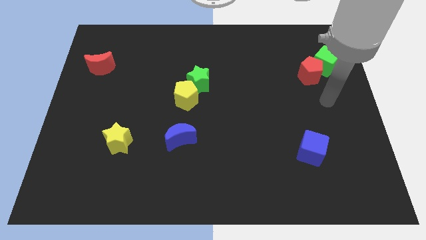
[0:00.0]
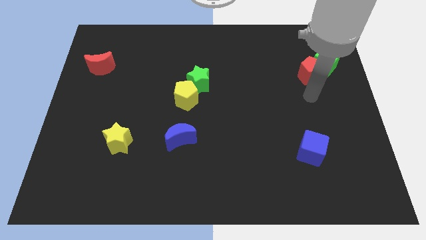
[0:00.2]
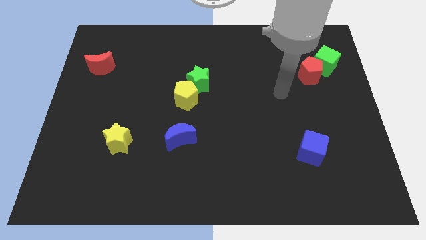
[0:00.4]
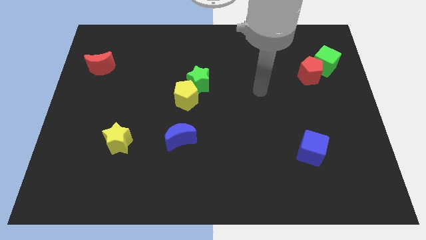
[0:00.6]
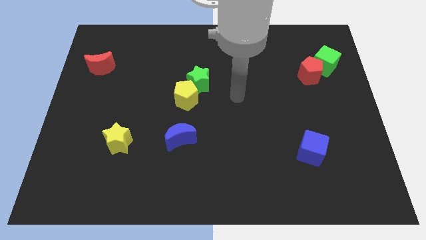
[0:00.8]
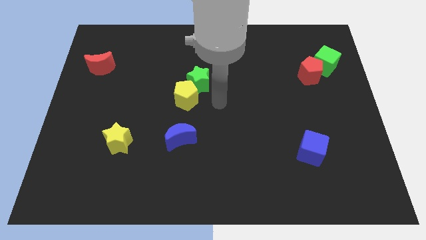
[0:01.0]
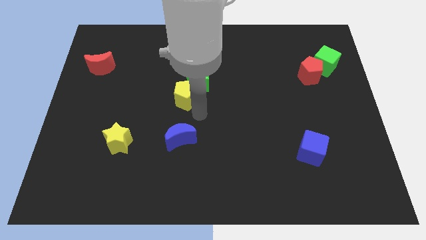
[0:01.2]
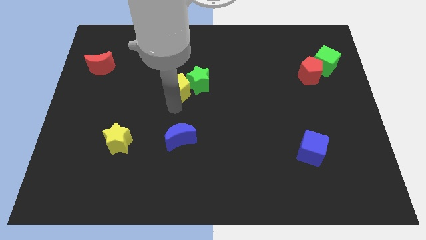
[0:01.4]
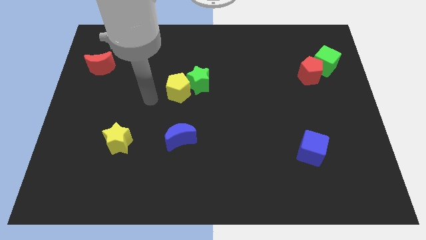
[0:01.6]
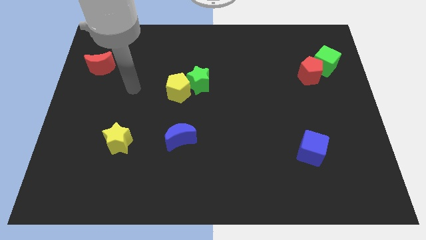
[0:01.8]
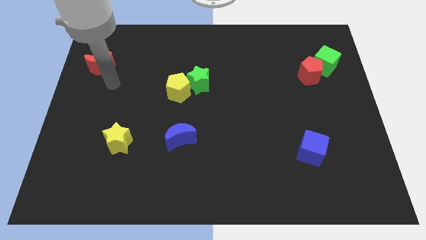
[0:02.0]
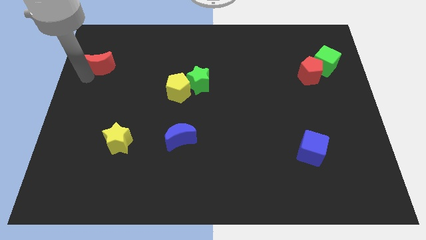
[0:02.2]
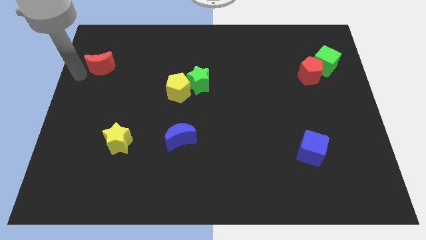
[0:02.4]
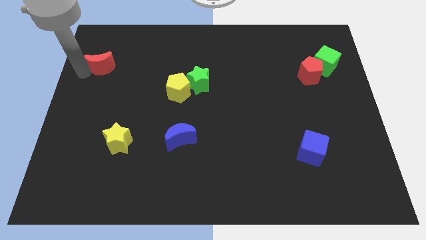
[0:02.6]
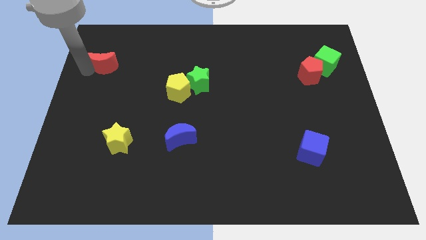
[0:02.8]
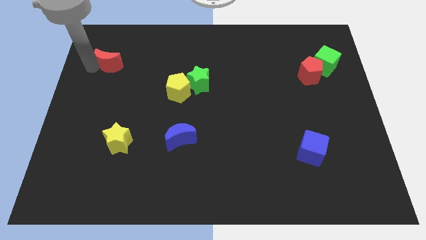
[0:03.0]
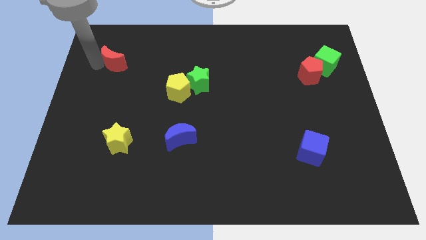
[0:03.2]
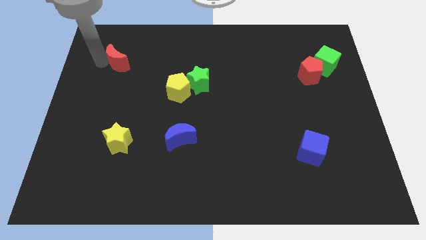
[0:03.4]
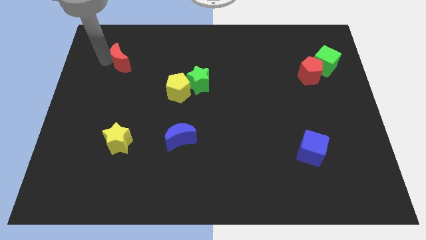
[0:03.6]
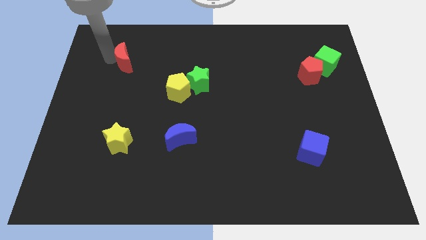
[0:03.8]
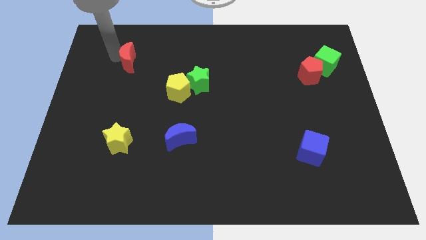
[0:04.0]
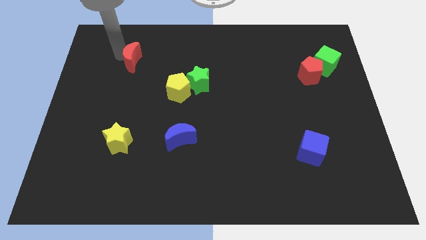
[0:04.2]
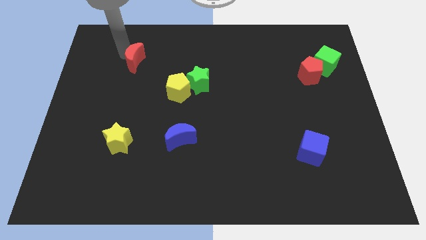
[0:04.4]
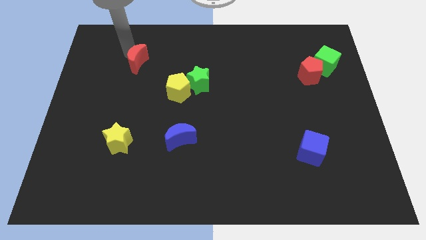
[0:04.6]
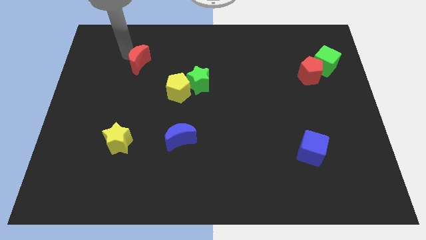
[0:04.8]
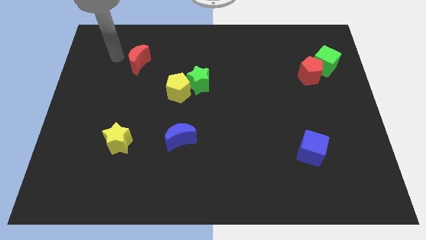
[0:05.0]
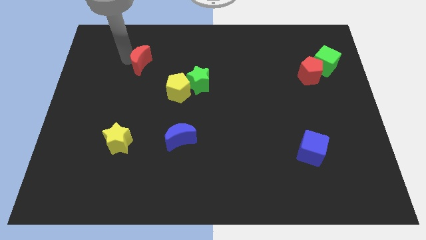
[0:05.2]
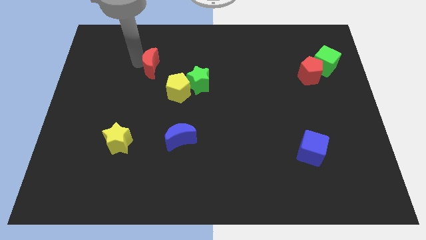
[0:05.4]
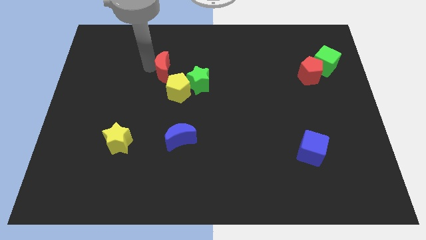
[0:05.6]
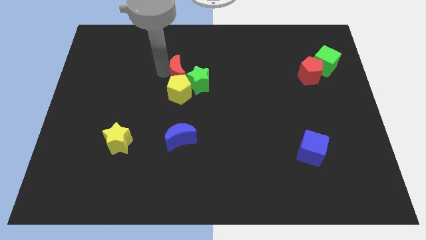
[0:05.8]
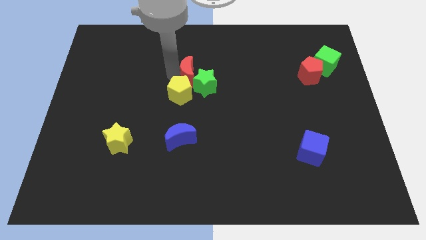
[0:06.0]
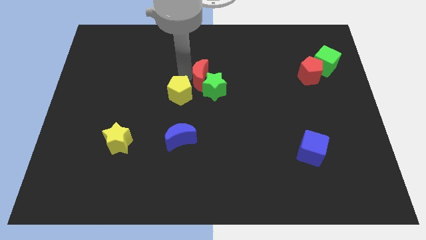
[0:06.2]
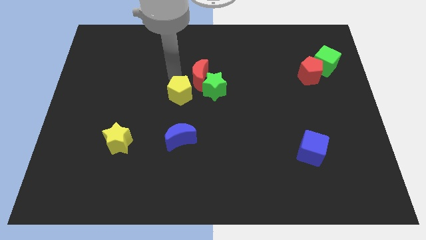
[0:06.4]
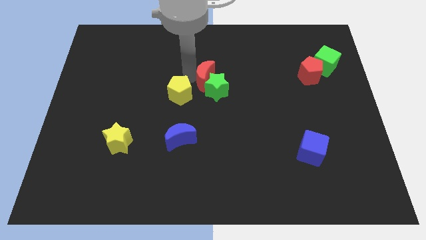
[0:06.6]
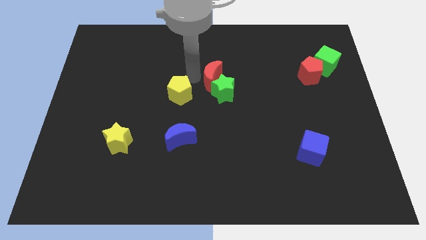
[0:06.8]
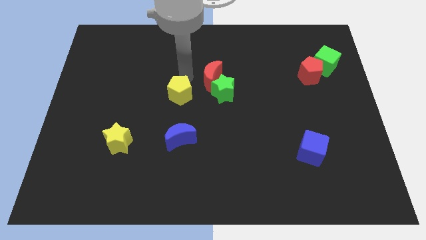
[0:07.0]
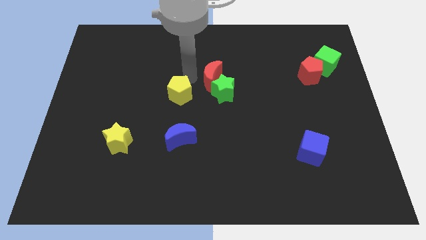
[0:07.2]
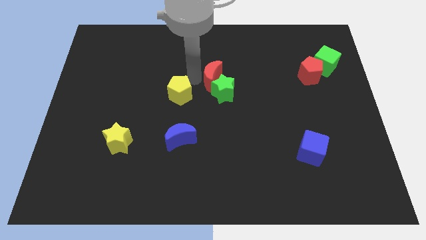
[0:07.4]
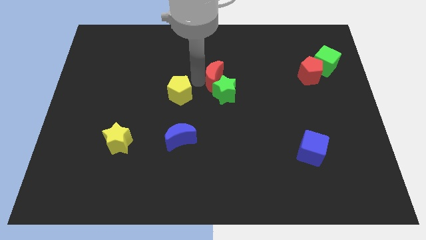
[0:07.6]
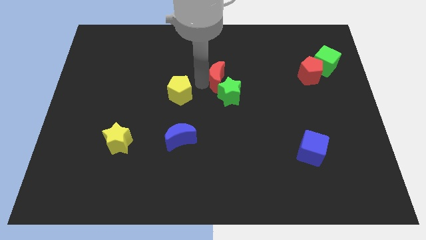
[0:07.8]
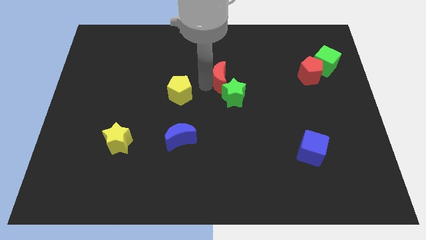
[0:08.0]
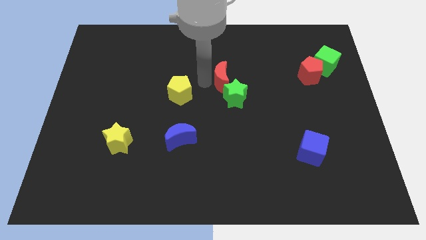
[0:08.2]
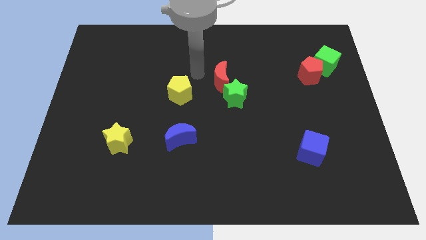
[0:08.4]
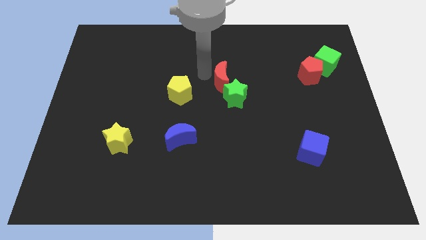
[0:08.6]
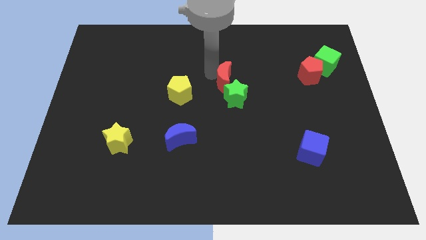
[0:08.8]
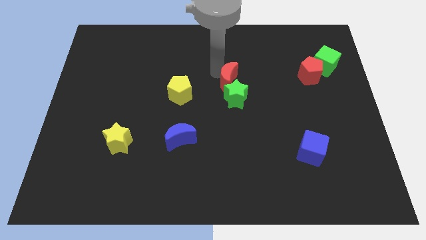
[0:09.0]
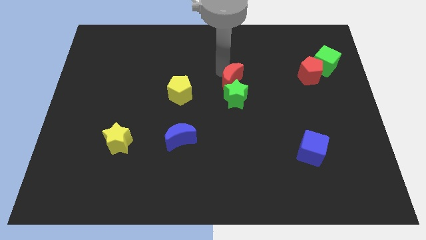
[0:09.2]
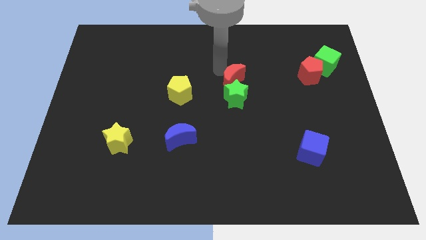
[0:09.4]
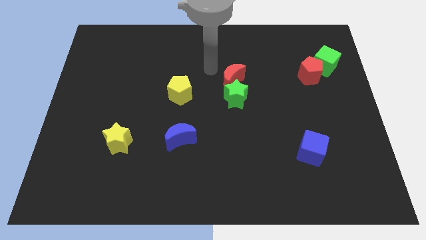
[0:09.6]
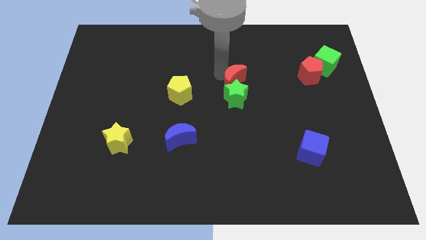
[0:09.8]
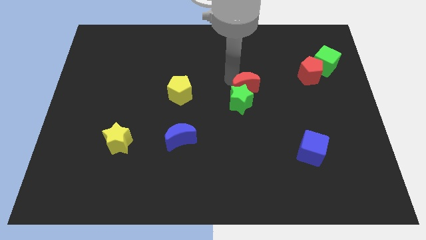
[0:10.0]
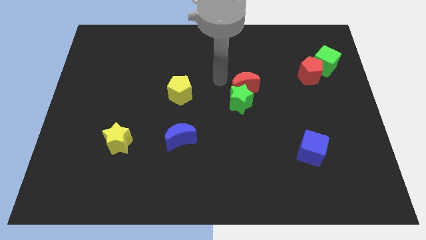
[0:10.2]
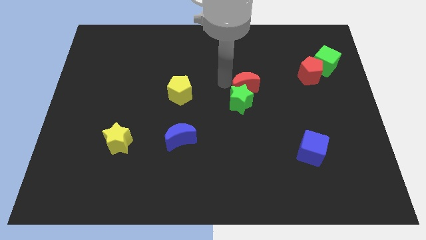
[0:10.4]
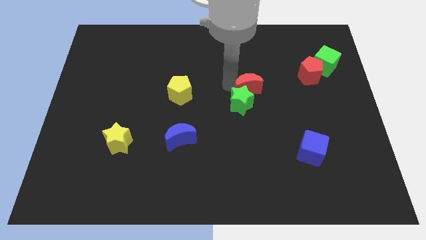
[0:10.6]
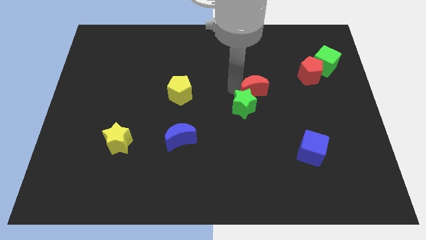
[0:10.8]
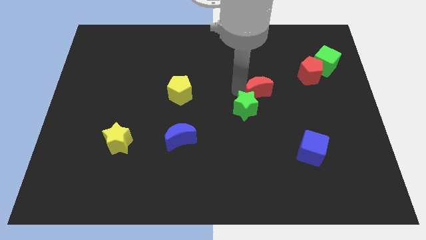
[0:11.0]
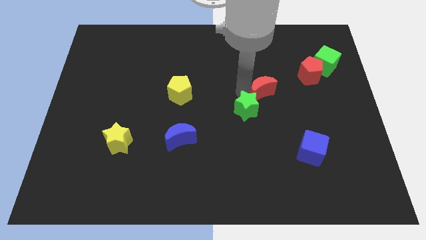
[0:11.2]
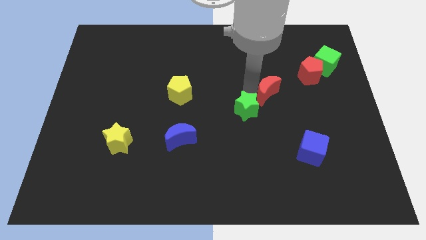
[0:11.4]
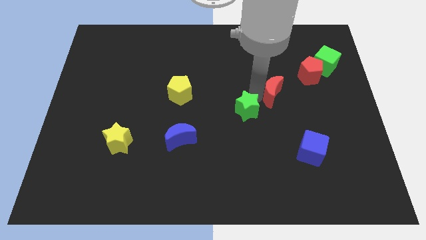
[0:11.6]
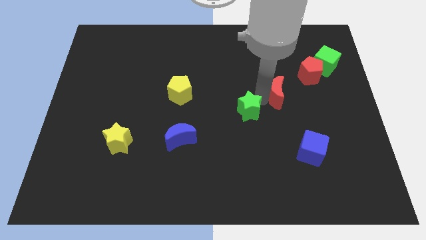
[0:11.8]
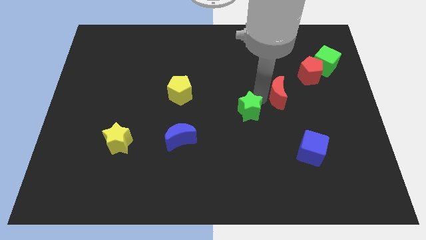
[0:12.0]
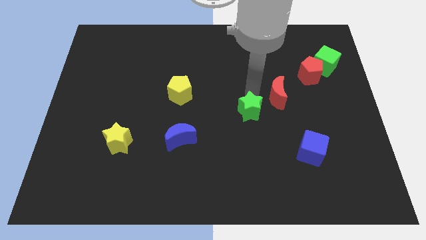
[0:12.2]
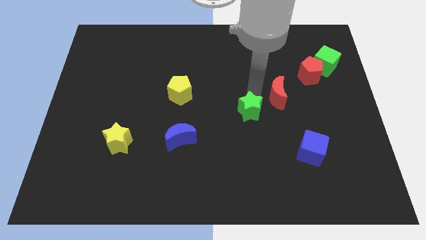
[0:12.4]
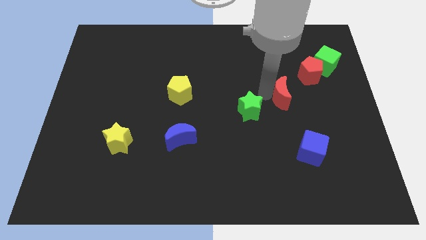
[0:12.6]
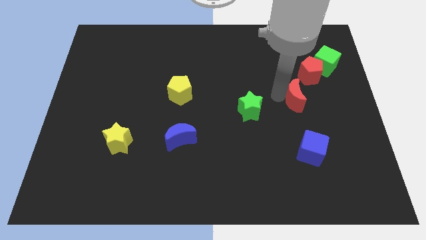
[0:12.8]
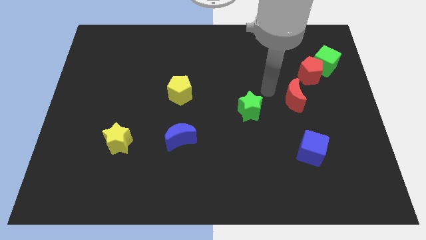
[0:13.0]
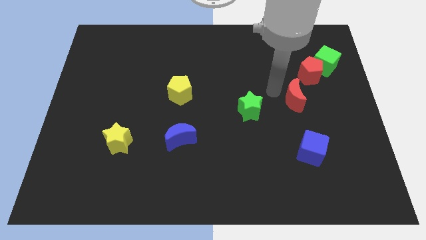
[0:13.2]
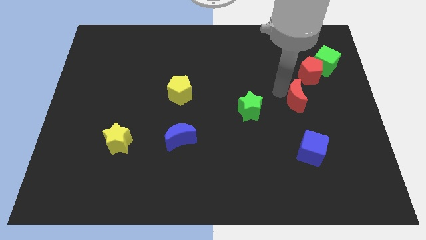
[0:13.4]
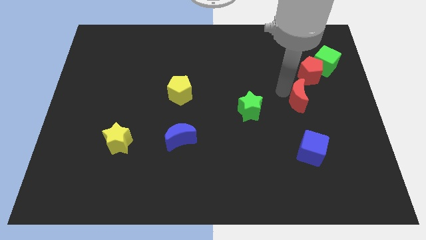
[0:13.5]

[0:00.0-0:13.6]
put the red moon to the bottom side of the red pentagon

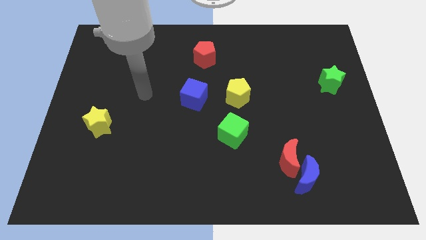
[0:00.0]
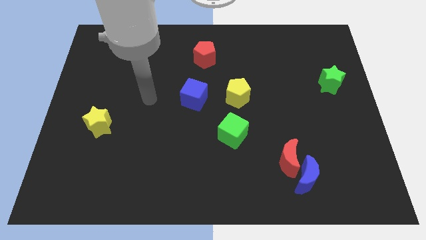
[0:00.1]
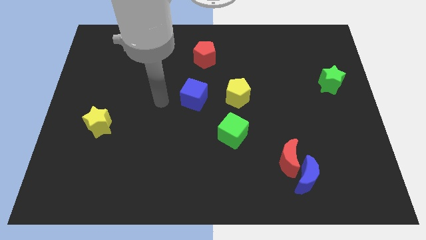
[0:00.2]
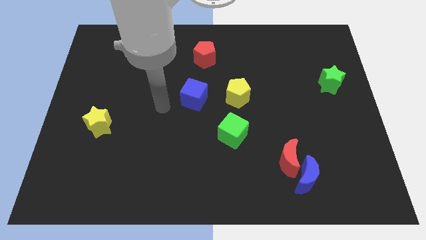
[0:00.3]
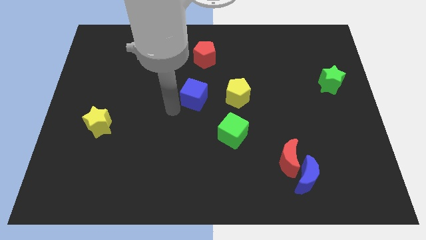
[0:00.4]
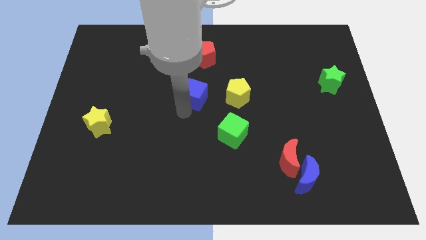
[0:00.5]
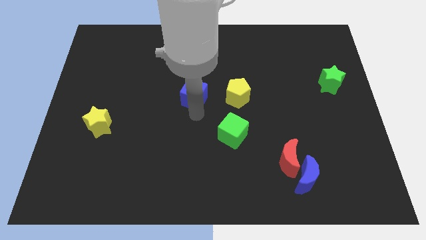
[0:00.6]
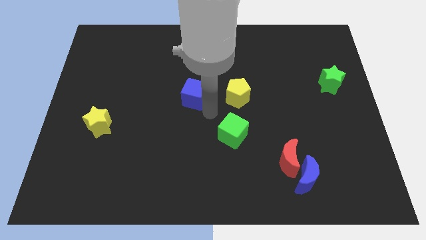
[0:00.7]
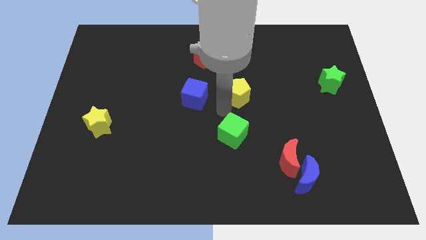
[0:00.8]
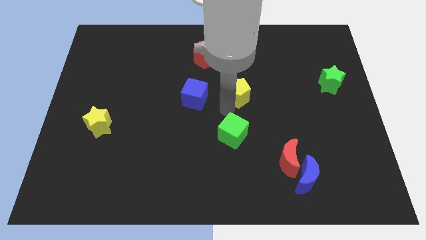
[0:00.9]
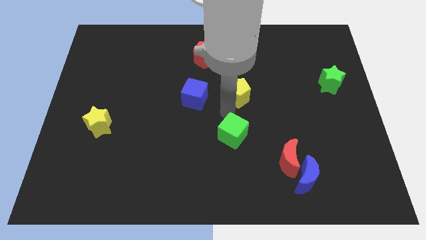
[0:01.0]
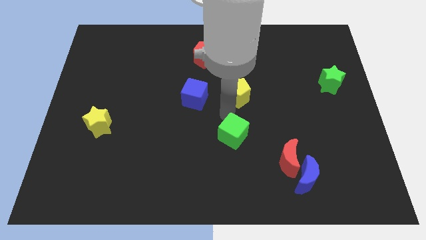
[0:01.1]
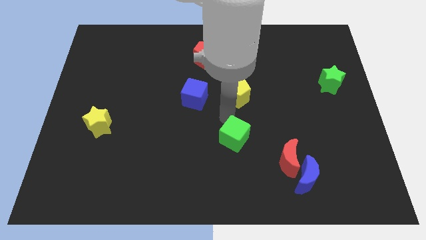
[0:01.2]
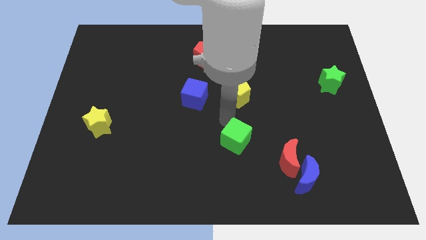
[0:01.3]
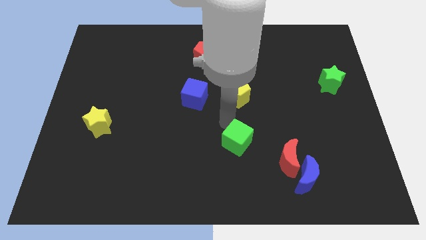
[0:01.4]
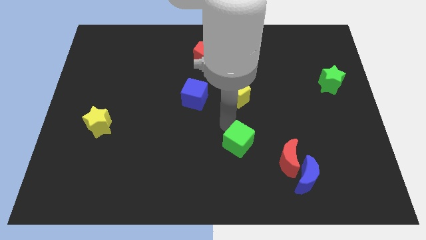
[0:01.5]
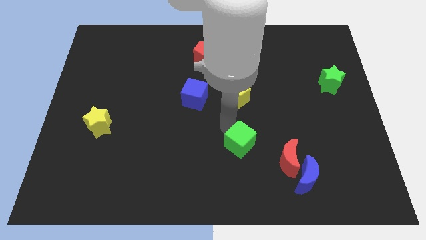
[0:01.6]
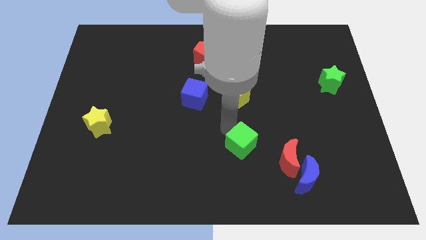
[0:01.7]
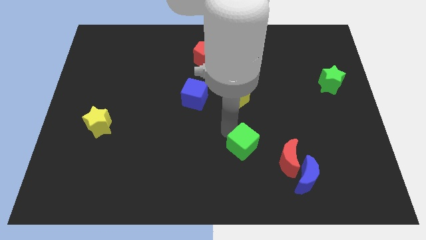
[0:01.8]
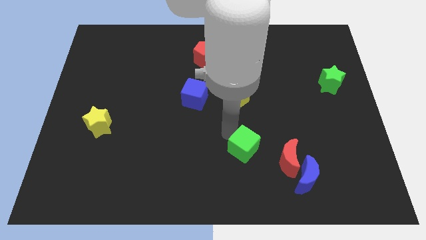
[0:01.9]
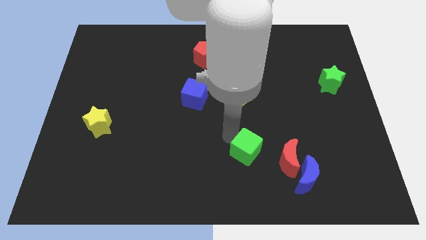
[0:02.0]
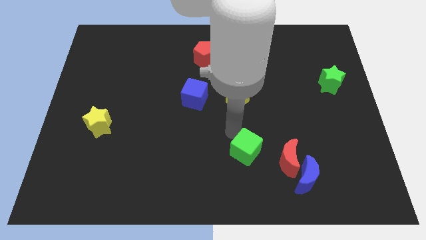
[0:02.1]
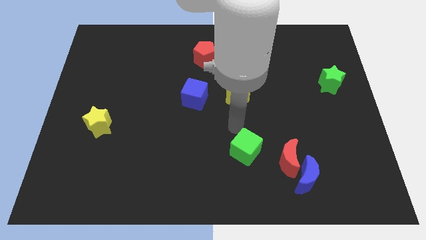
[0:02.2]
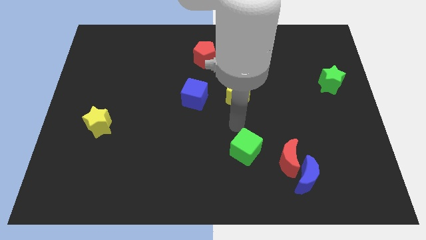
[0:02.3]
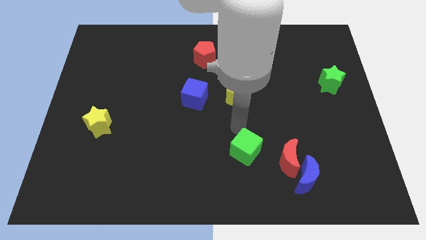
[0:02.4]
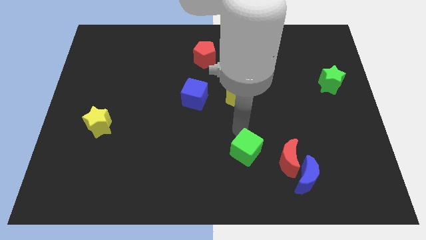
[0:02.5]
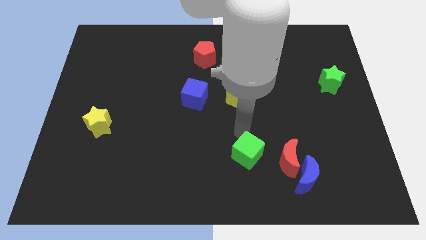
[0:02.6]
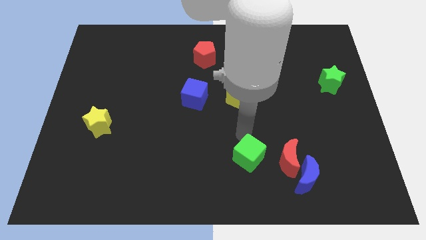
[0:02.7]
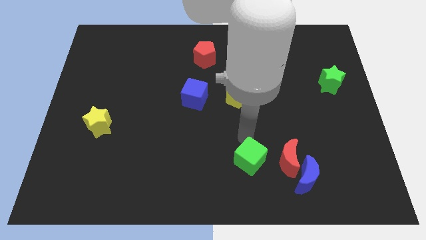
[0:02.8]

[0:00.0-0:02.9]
move the green cube left of the blue moon
